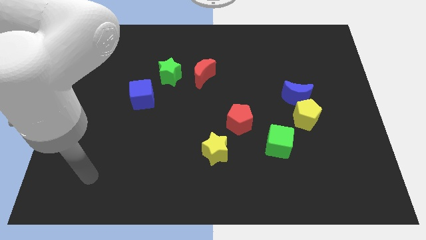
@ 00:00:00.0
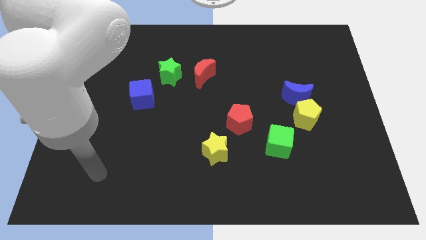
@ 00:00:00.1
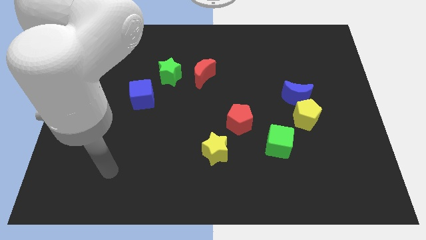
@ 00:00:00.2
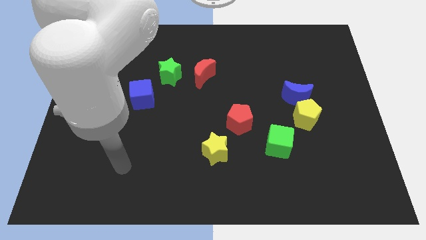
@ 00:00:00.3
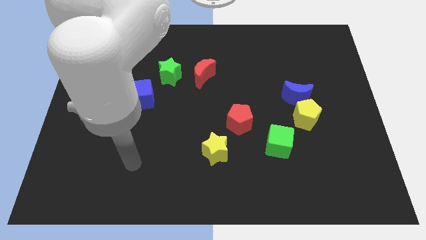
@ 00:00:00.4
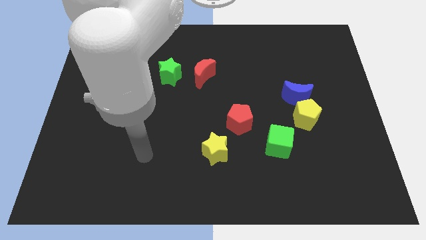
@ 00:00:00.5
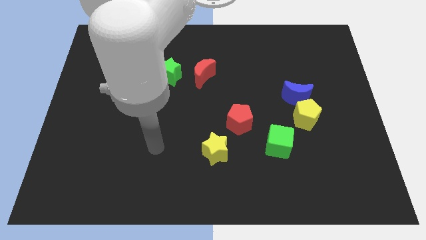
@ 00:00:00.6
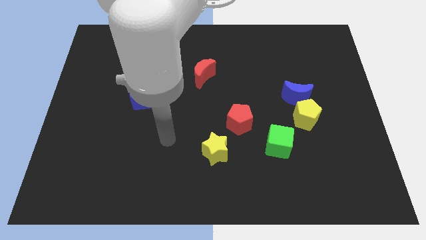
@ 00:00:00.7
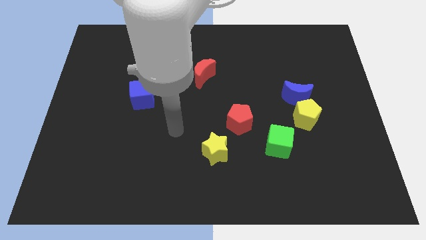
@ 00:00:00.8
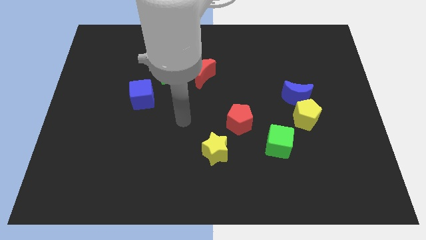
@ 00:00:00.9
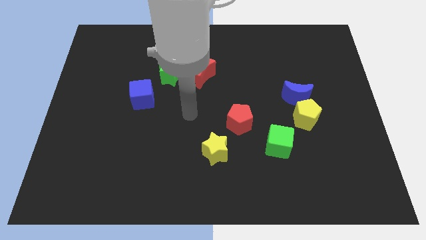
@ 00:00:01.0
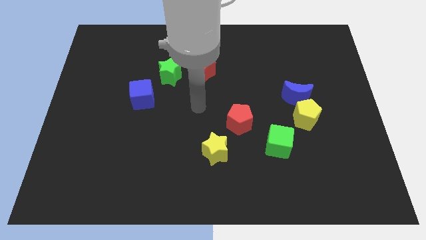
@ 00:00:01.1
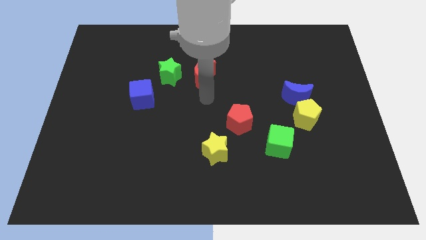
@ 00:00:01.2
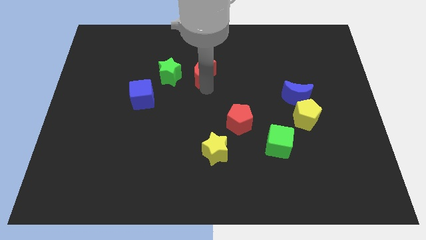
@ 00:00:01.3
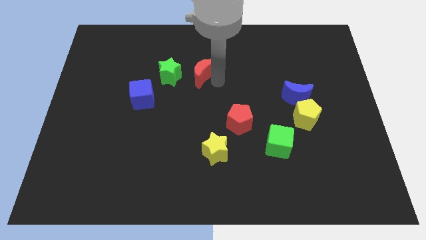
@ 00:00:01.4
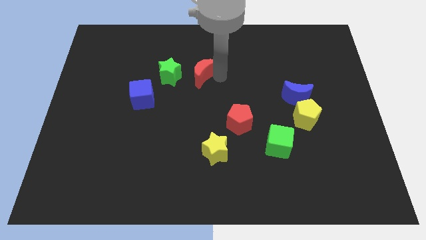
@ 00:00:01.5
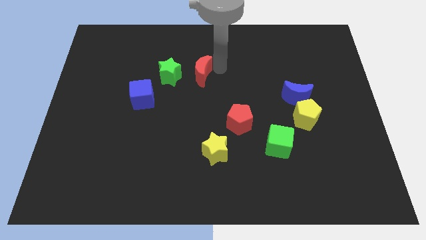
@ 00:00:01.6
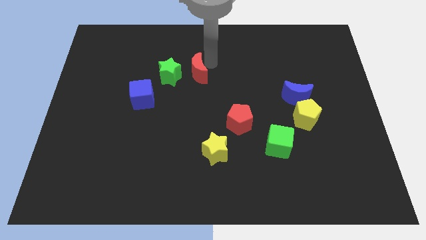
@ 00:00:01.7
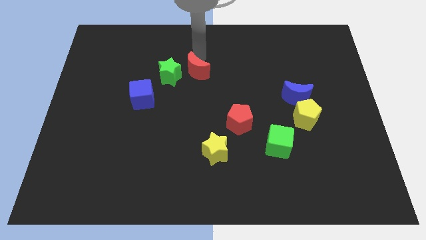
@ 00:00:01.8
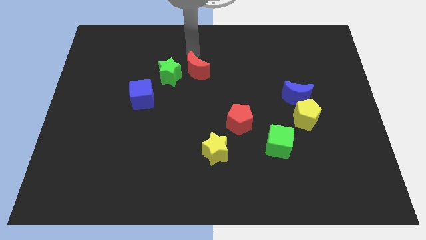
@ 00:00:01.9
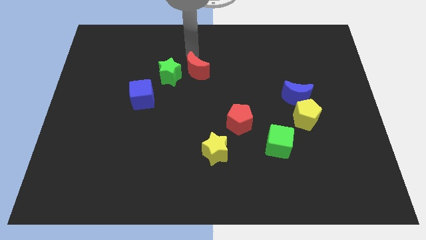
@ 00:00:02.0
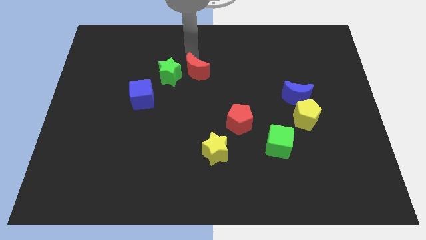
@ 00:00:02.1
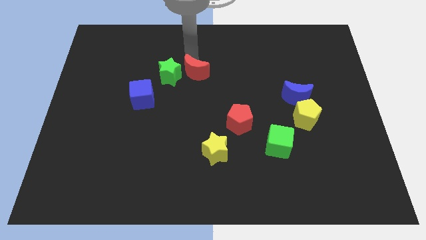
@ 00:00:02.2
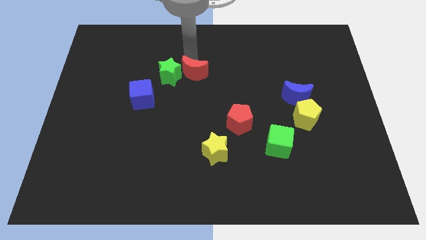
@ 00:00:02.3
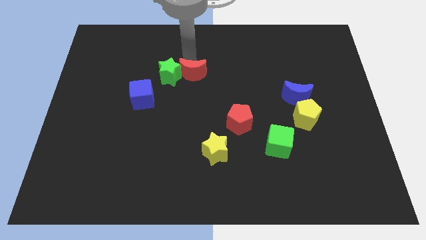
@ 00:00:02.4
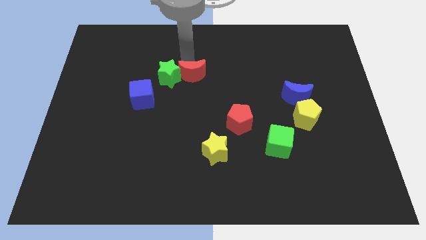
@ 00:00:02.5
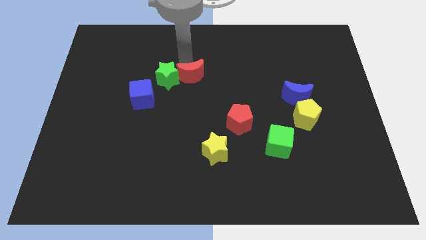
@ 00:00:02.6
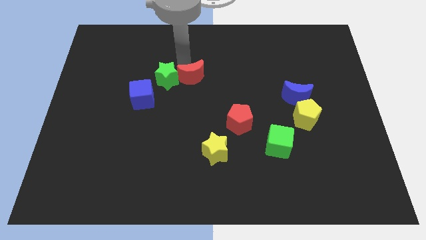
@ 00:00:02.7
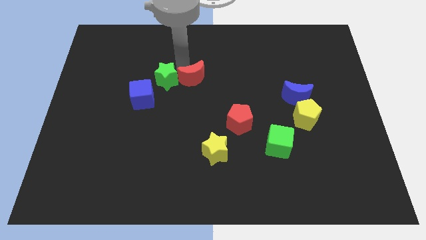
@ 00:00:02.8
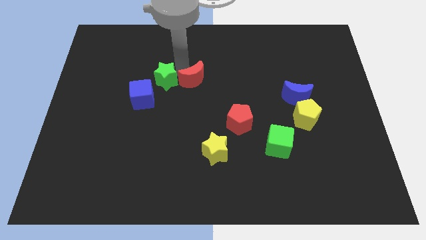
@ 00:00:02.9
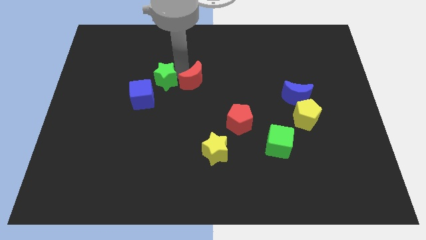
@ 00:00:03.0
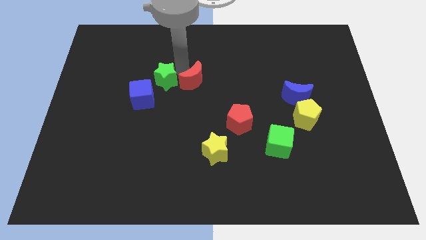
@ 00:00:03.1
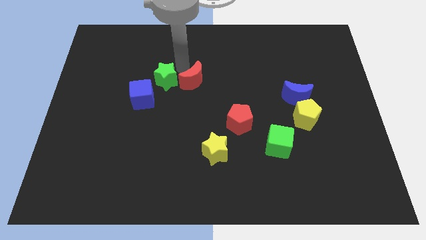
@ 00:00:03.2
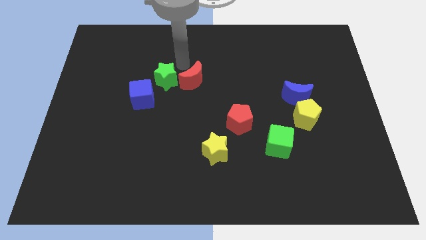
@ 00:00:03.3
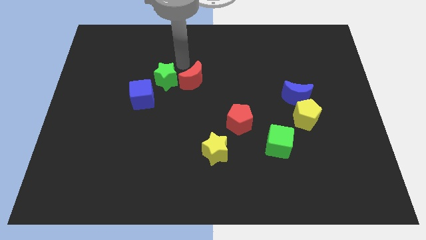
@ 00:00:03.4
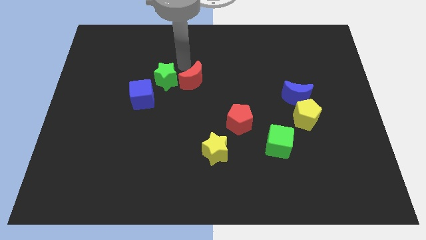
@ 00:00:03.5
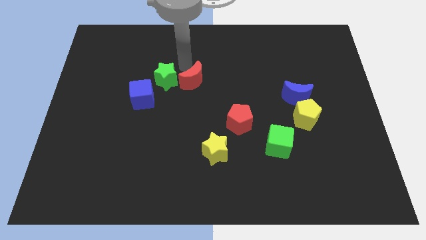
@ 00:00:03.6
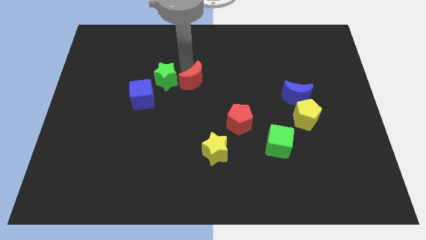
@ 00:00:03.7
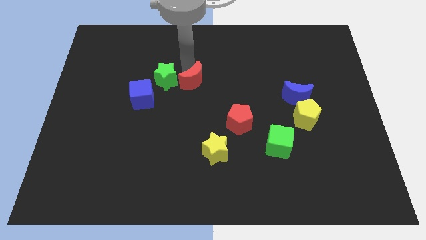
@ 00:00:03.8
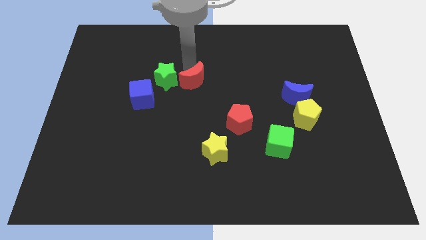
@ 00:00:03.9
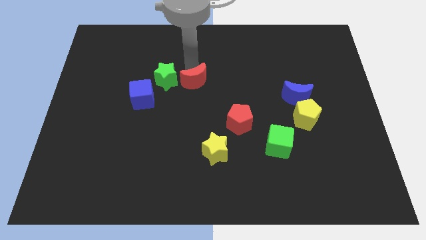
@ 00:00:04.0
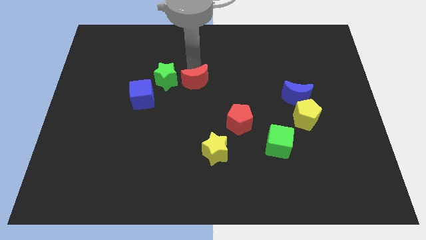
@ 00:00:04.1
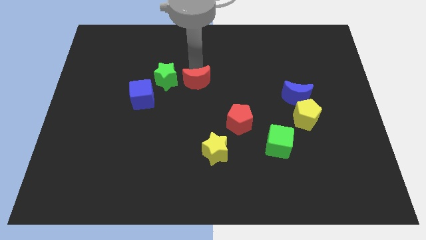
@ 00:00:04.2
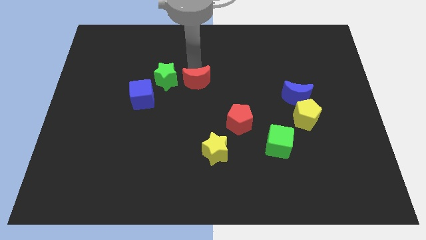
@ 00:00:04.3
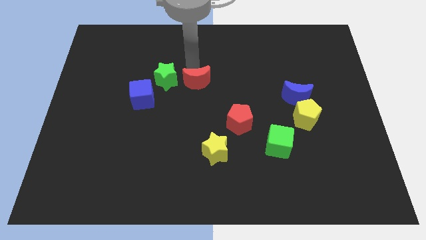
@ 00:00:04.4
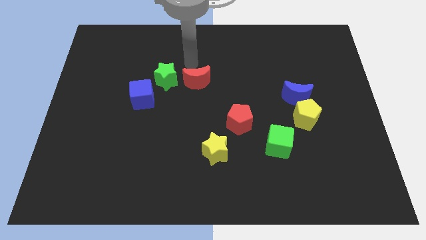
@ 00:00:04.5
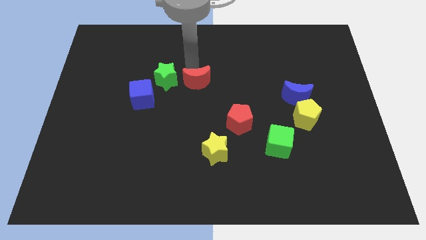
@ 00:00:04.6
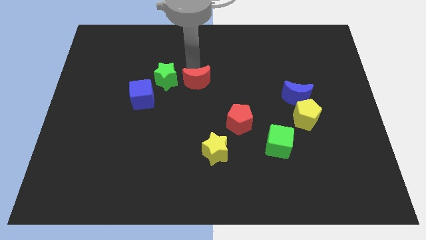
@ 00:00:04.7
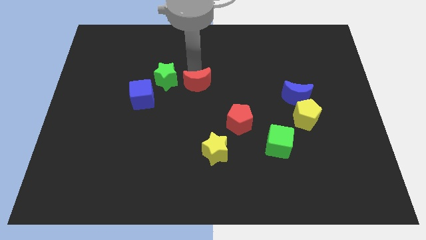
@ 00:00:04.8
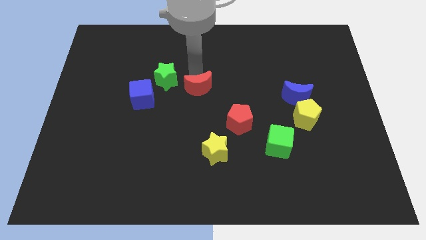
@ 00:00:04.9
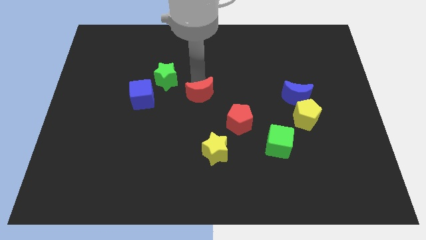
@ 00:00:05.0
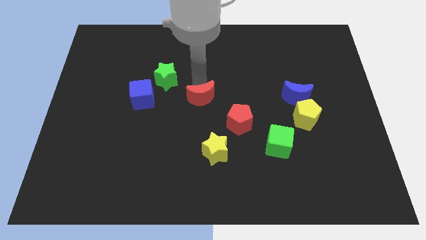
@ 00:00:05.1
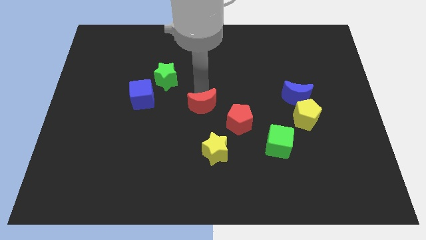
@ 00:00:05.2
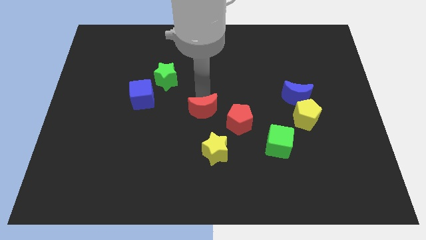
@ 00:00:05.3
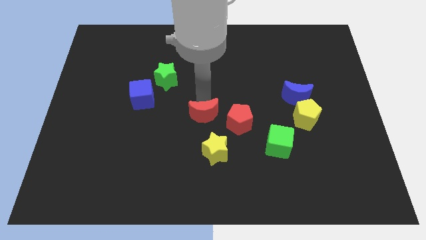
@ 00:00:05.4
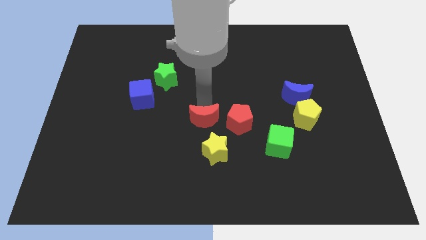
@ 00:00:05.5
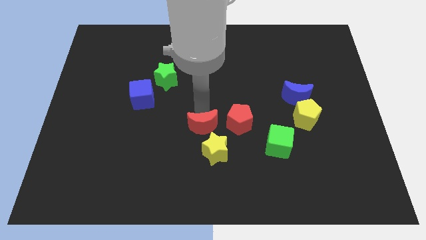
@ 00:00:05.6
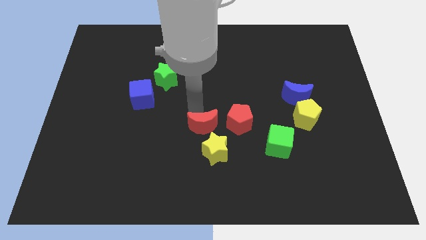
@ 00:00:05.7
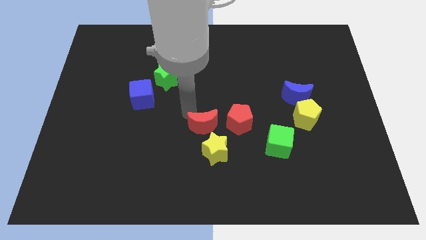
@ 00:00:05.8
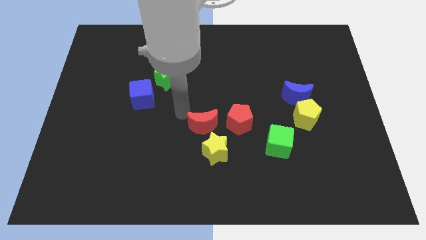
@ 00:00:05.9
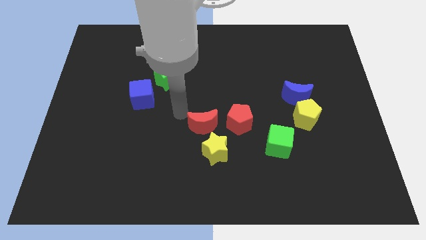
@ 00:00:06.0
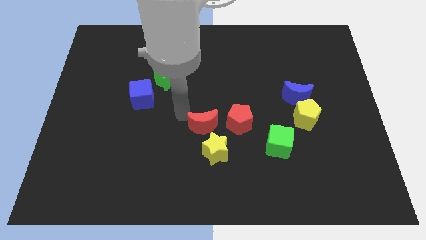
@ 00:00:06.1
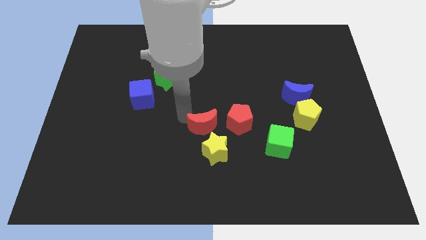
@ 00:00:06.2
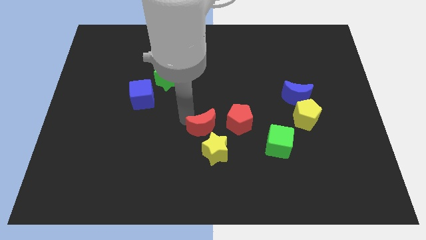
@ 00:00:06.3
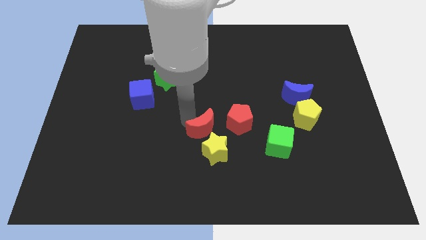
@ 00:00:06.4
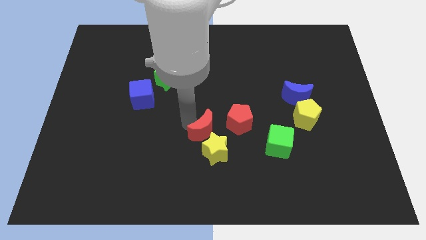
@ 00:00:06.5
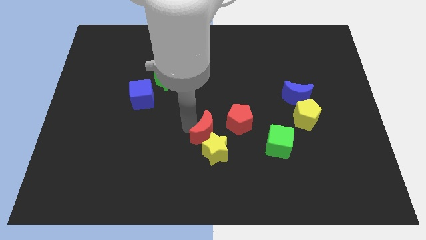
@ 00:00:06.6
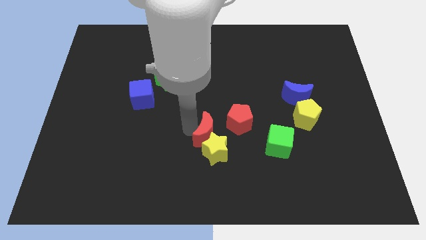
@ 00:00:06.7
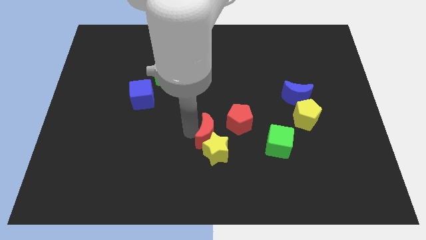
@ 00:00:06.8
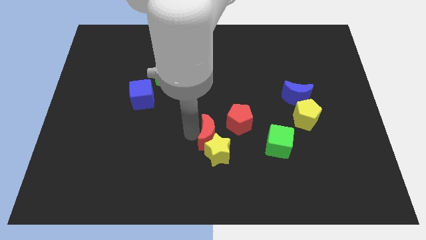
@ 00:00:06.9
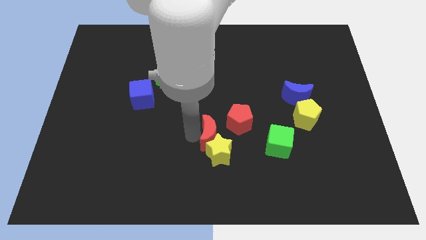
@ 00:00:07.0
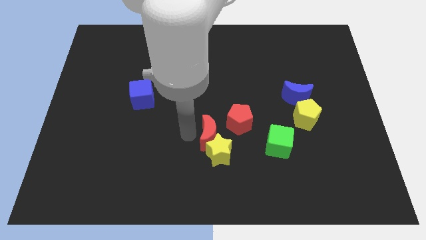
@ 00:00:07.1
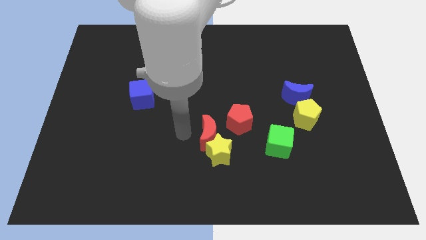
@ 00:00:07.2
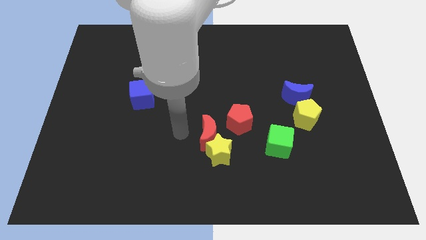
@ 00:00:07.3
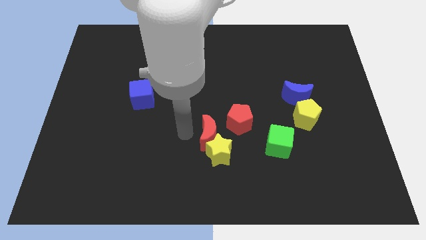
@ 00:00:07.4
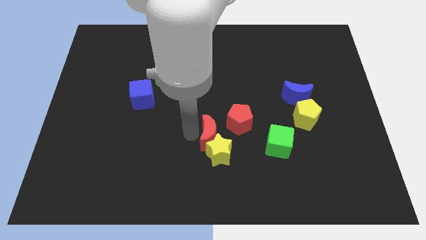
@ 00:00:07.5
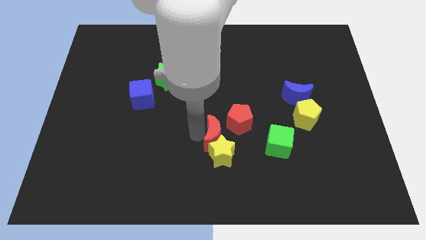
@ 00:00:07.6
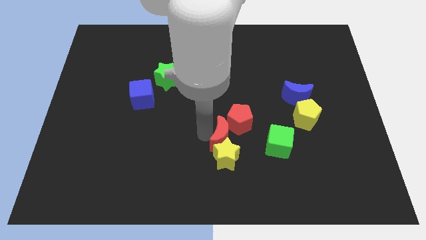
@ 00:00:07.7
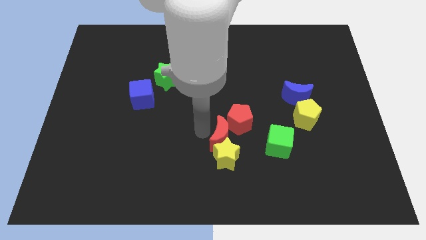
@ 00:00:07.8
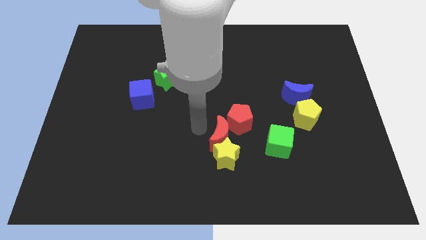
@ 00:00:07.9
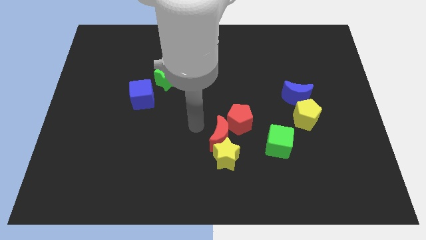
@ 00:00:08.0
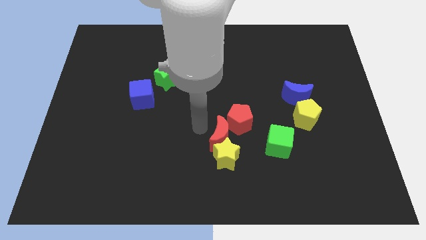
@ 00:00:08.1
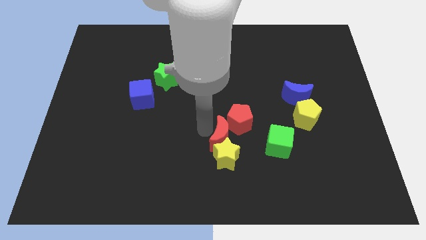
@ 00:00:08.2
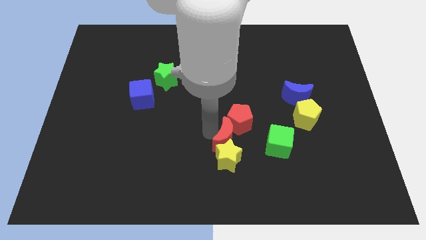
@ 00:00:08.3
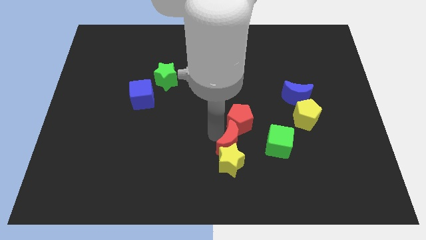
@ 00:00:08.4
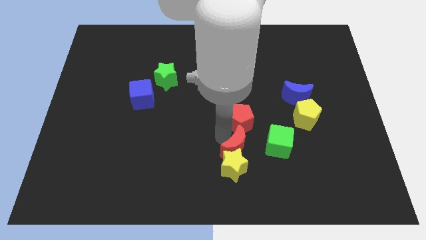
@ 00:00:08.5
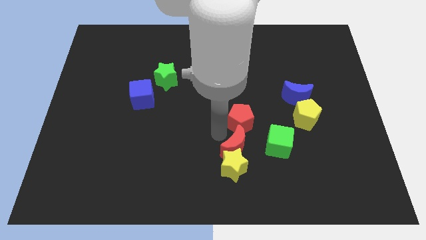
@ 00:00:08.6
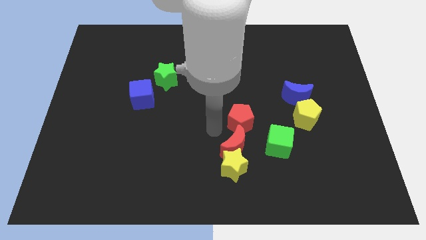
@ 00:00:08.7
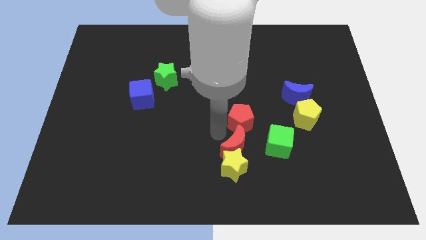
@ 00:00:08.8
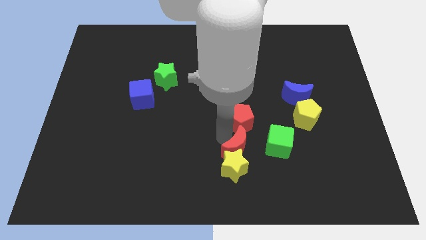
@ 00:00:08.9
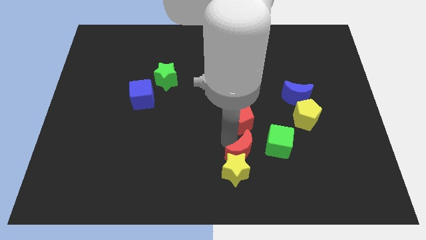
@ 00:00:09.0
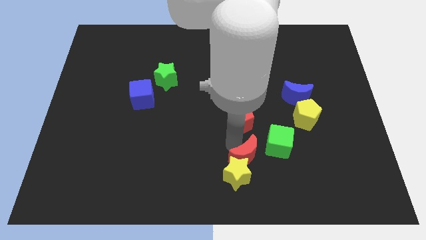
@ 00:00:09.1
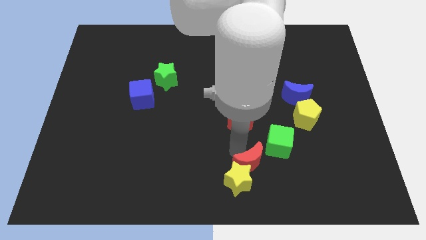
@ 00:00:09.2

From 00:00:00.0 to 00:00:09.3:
slide the red moon diagonally down and right
